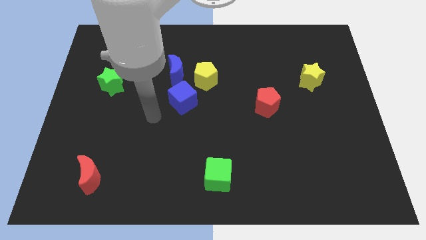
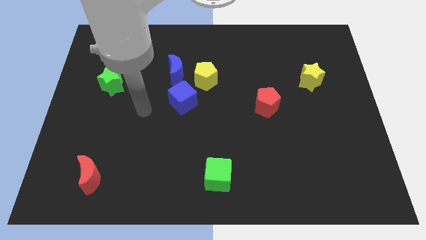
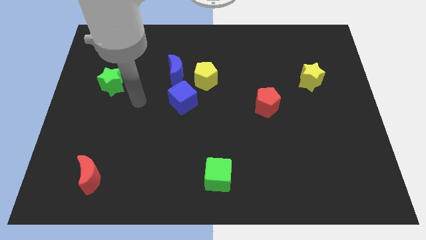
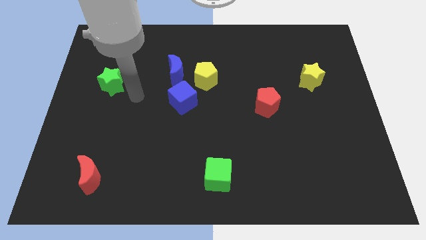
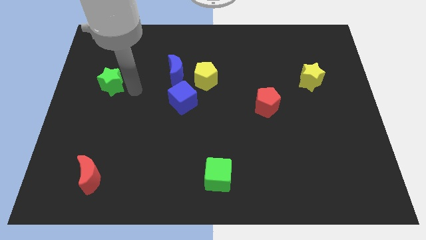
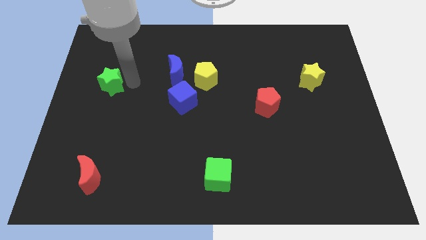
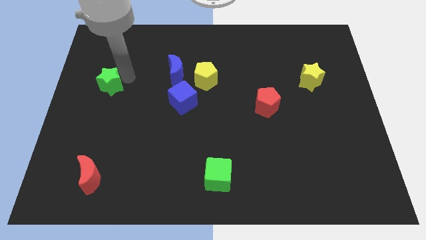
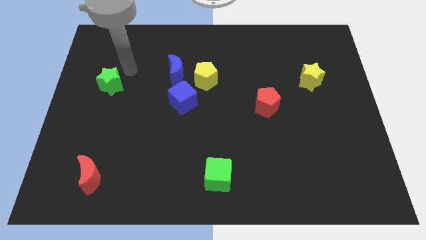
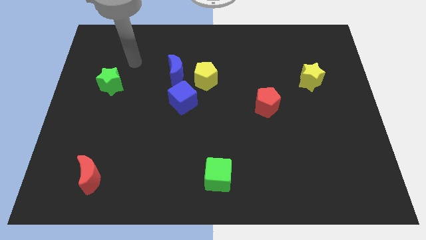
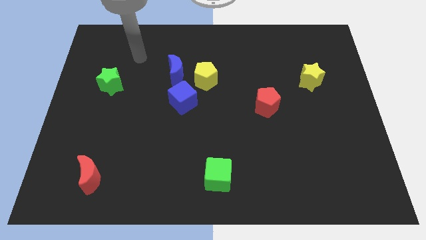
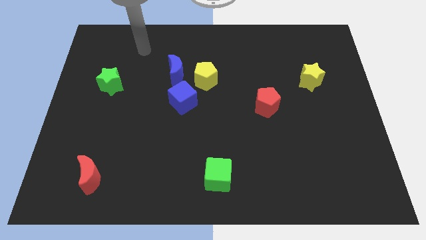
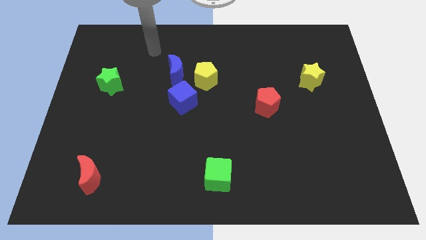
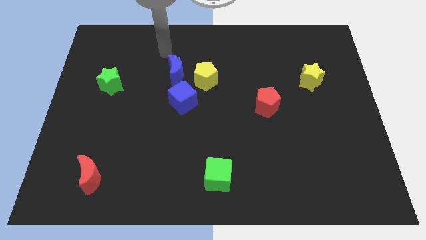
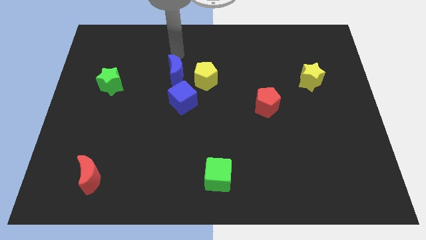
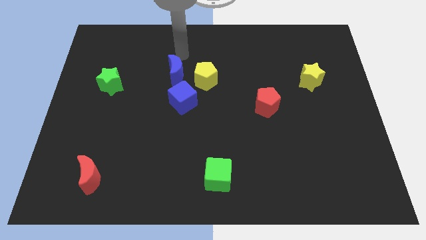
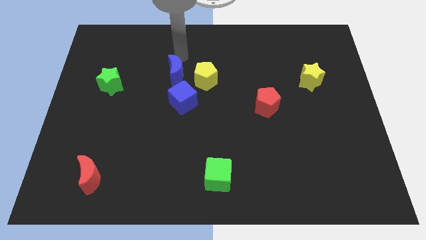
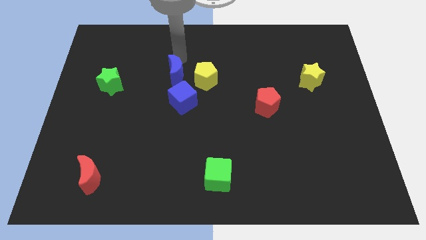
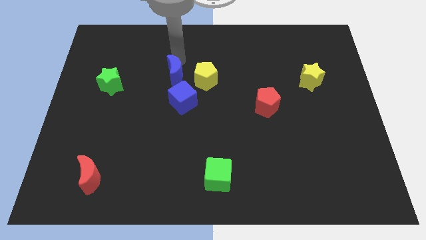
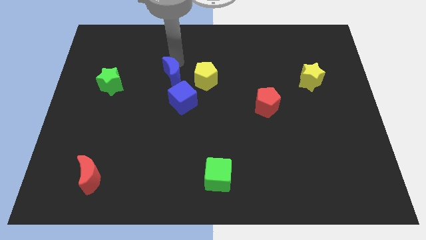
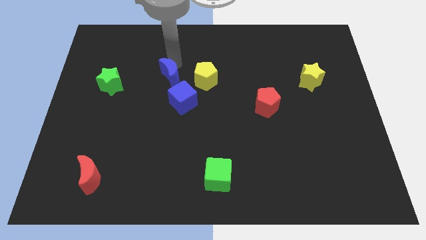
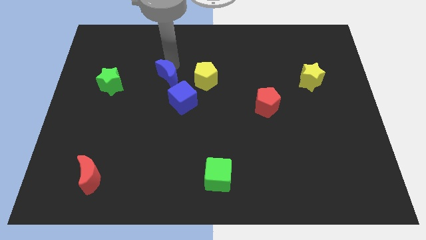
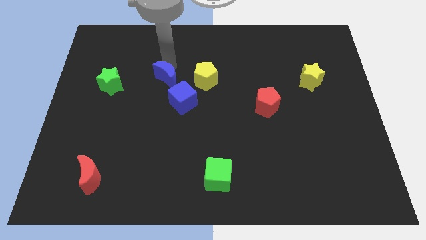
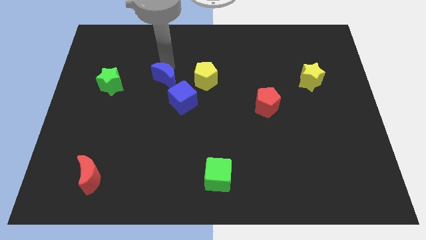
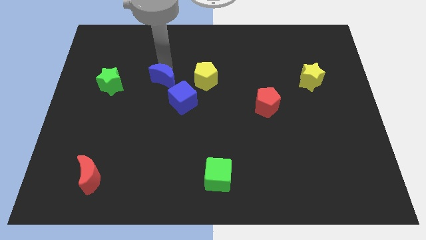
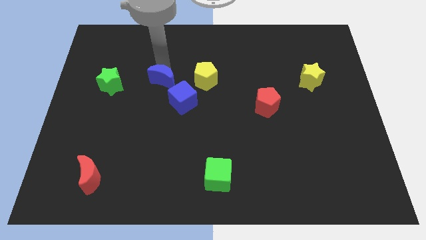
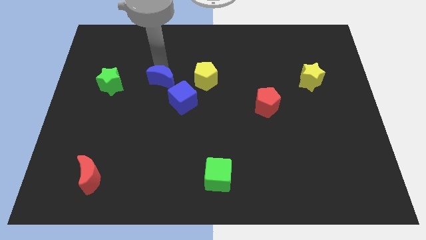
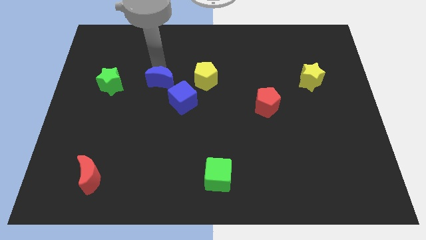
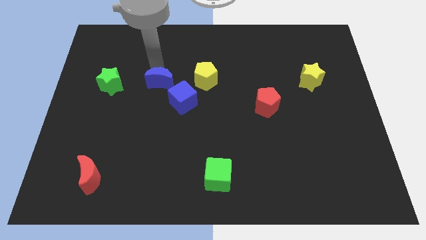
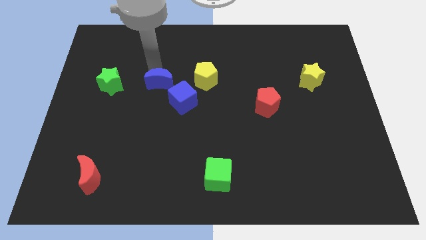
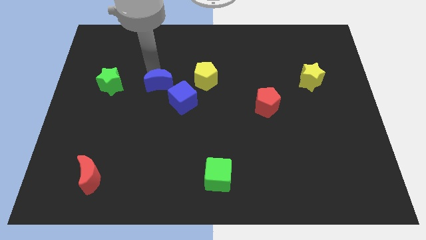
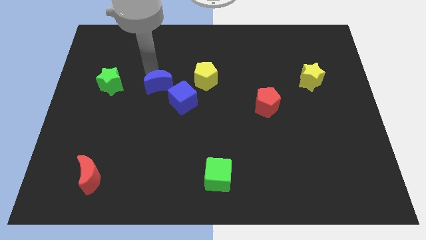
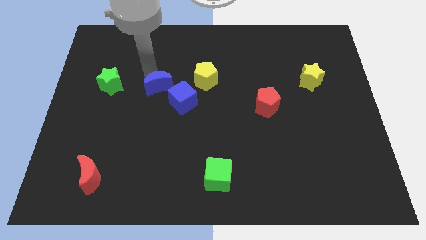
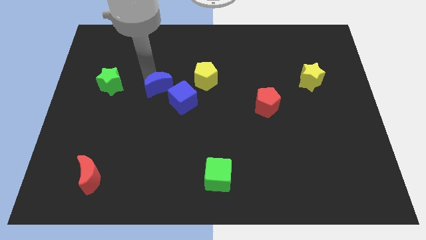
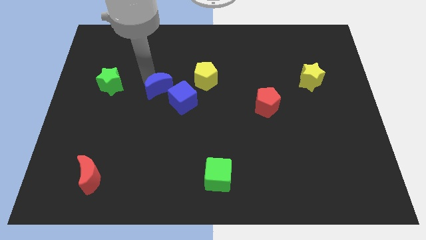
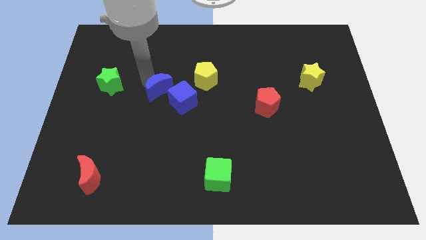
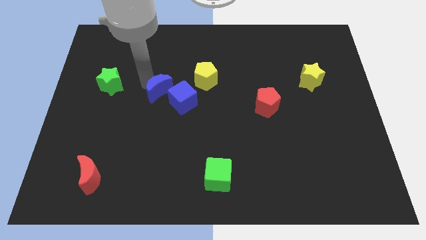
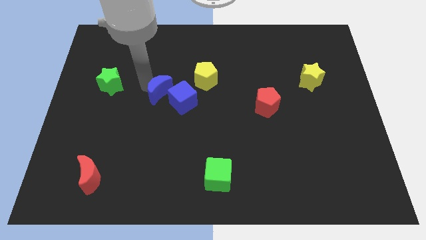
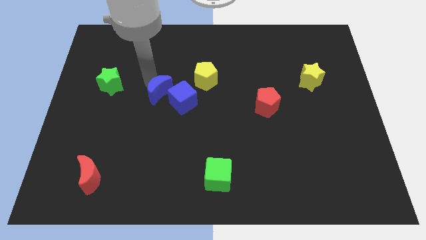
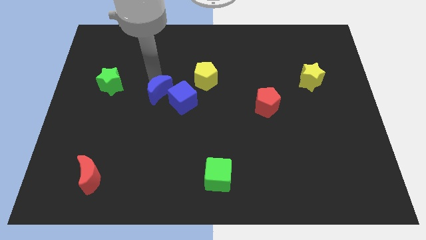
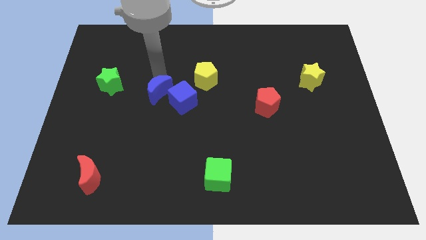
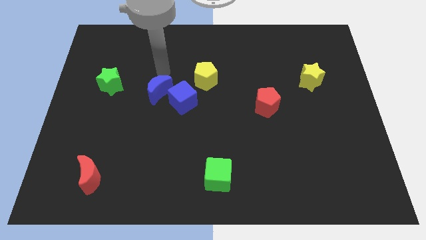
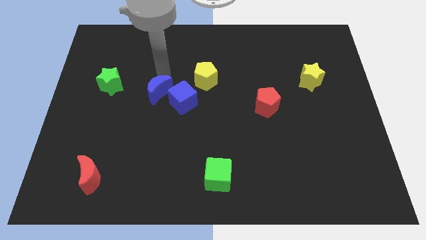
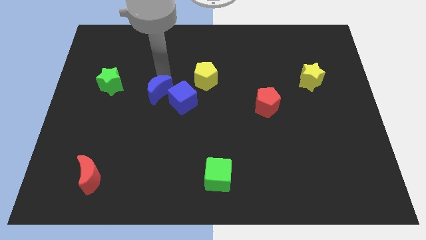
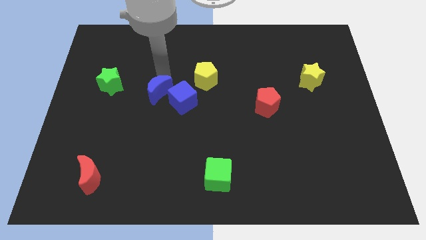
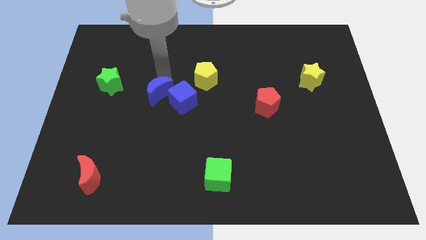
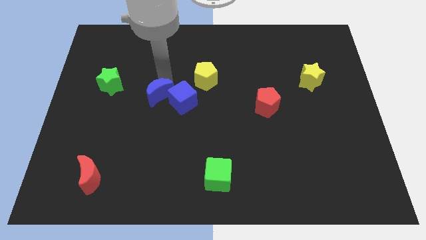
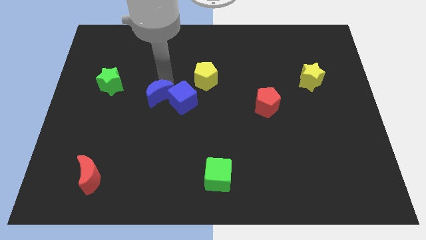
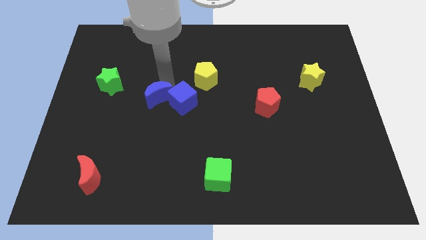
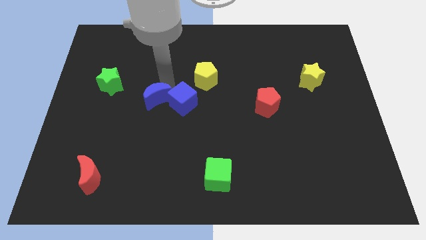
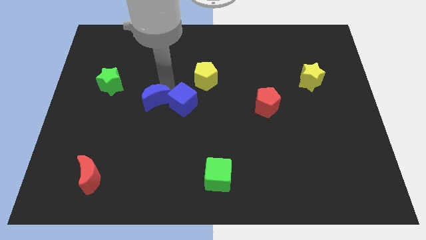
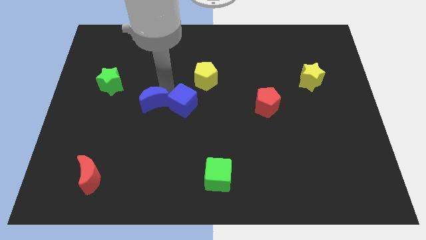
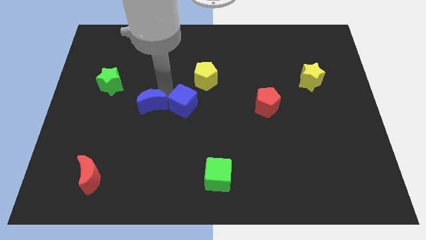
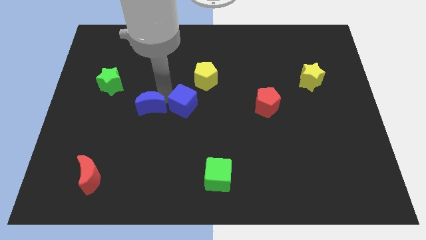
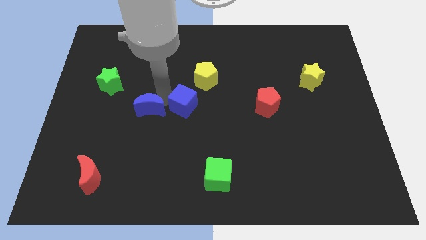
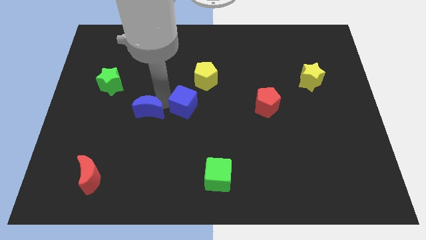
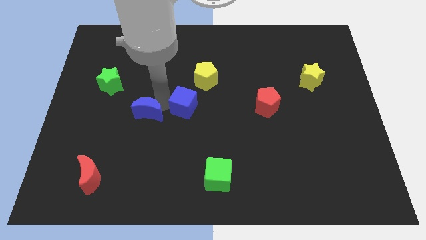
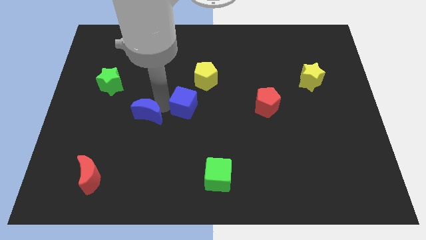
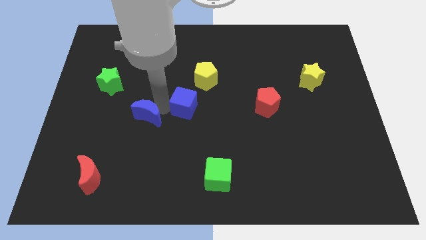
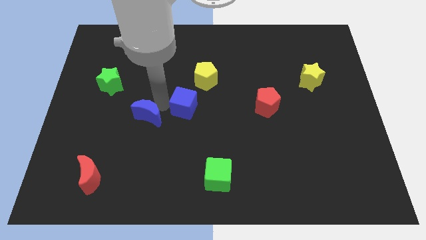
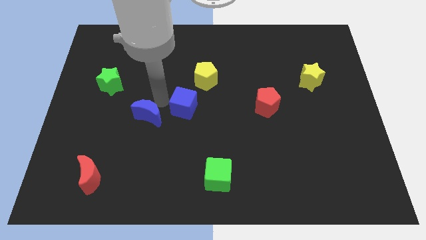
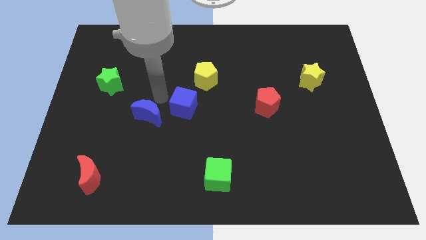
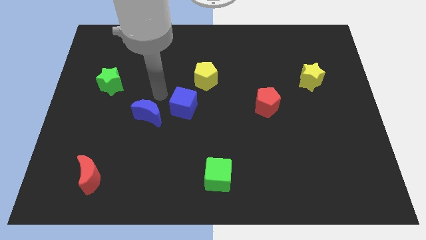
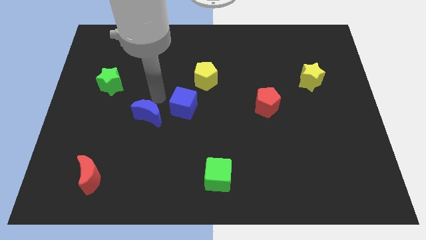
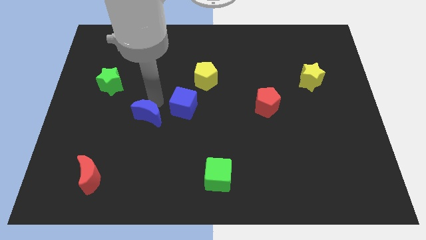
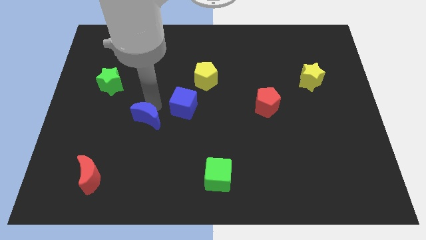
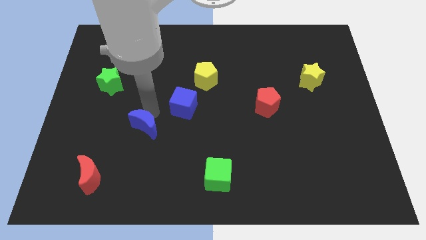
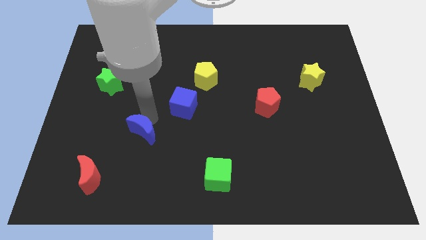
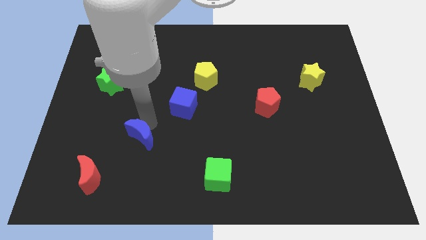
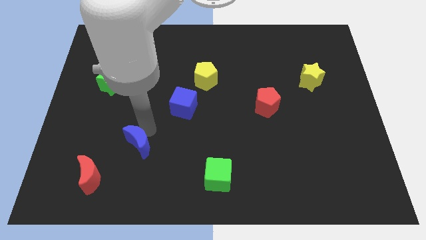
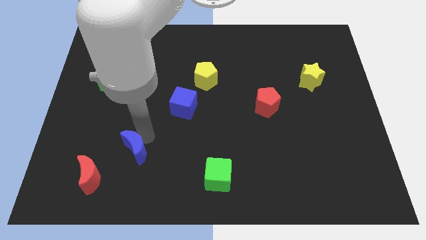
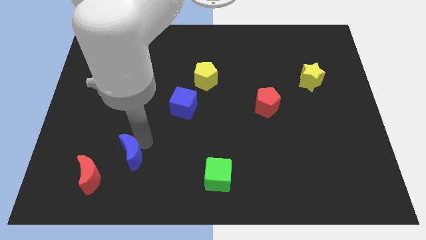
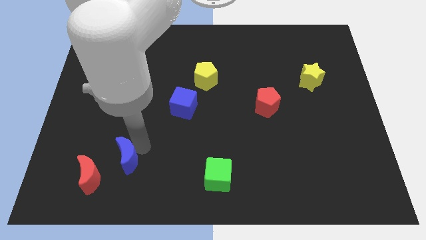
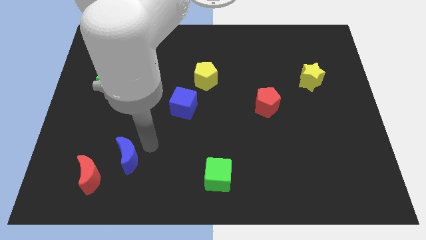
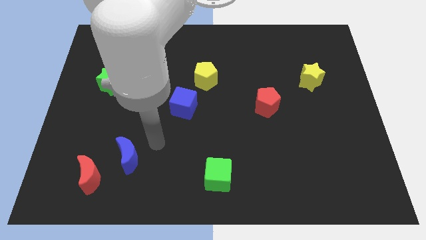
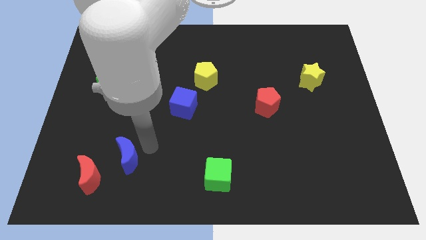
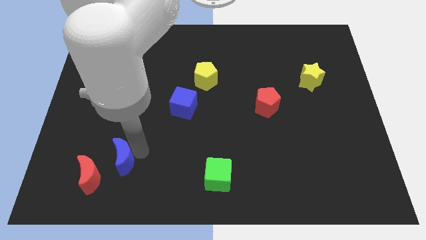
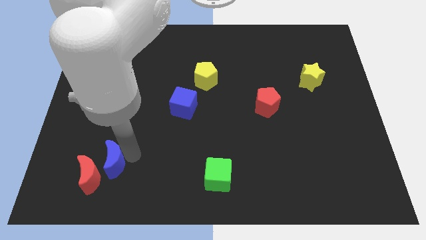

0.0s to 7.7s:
push the blue moon towards the red moon
